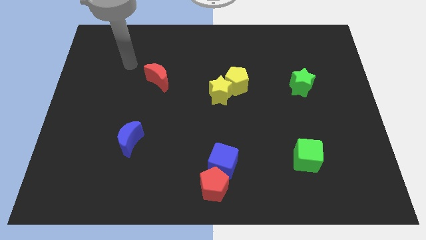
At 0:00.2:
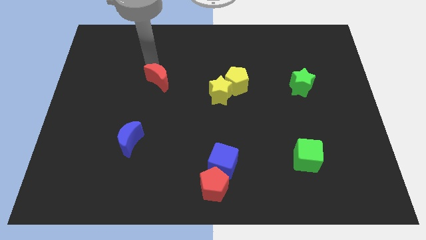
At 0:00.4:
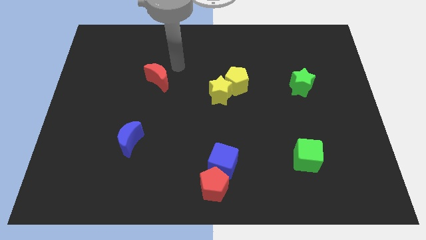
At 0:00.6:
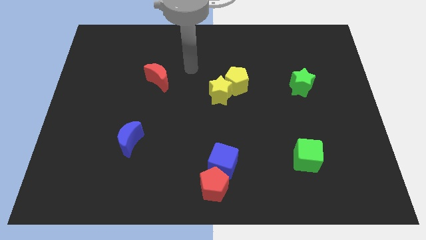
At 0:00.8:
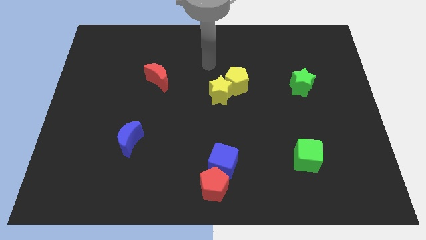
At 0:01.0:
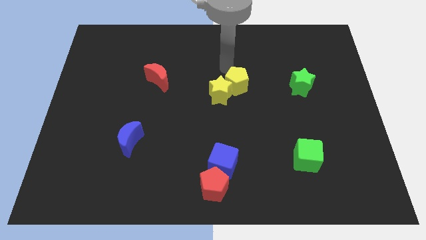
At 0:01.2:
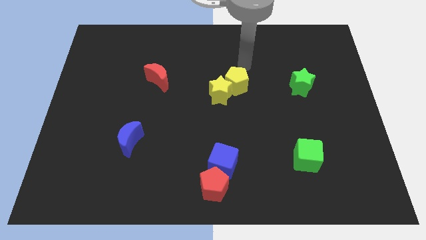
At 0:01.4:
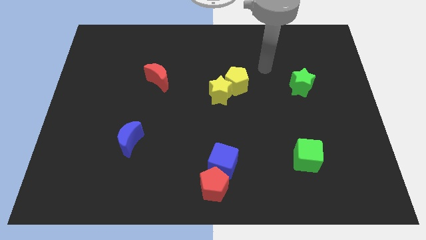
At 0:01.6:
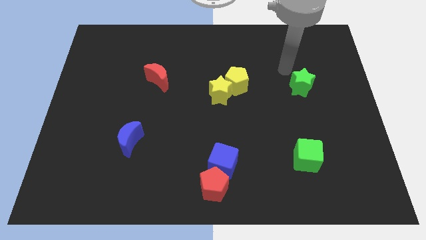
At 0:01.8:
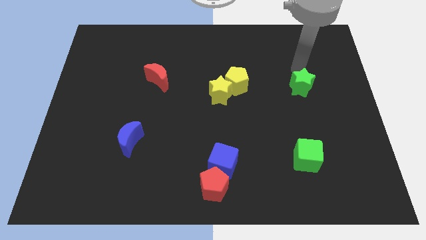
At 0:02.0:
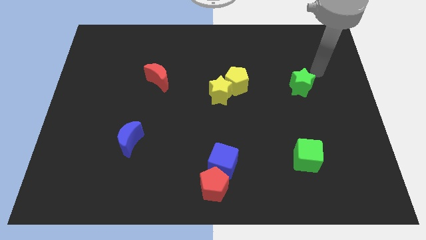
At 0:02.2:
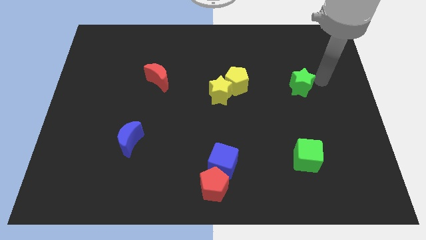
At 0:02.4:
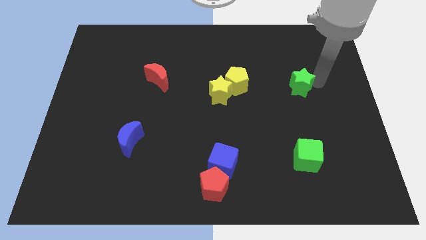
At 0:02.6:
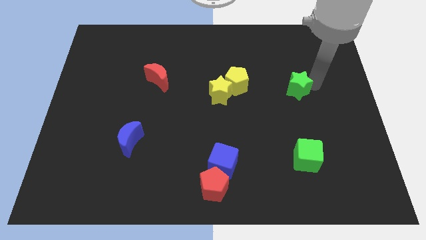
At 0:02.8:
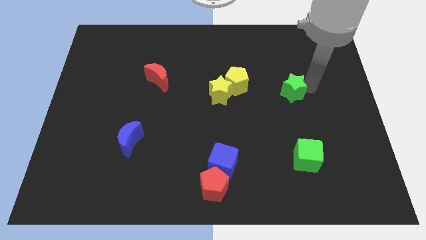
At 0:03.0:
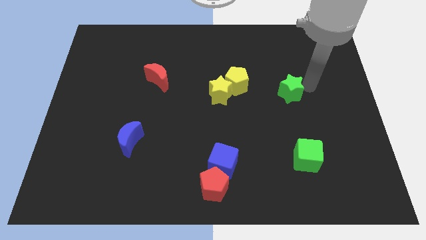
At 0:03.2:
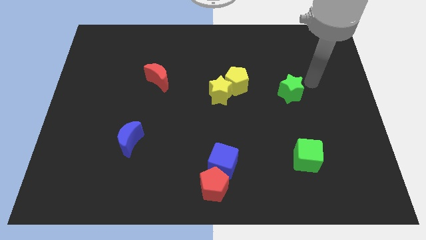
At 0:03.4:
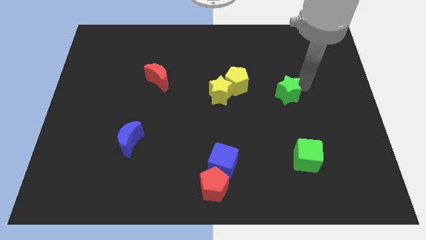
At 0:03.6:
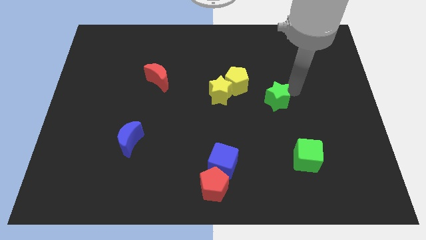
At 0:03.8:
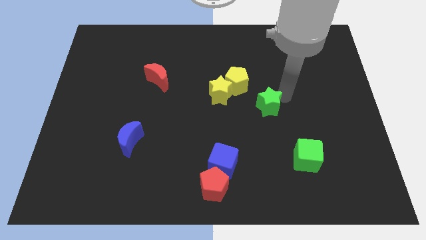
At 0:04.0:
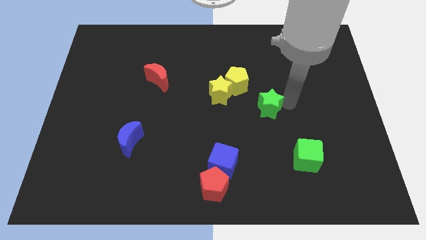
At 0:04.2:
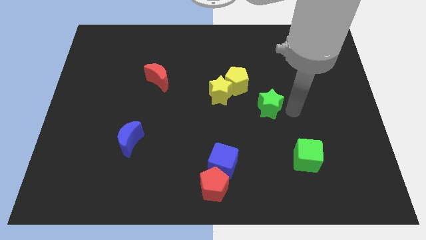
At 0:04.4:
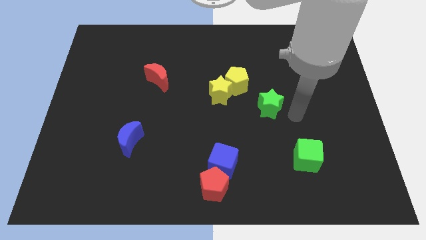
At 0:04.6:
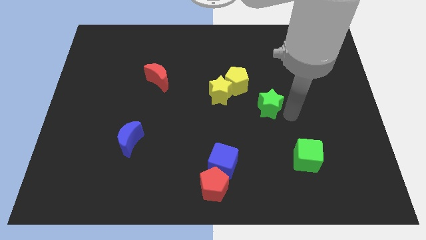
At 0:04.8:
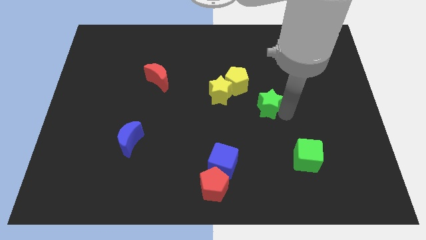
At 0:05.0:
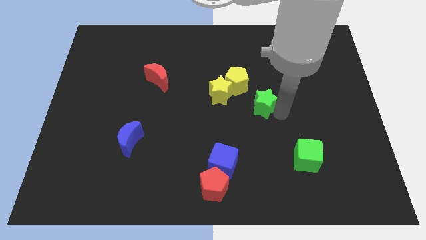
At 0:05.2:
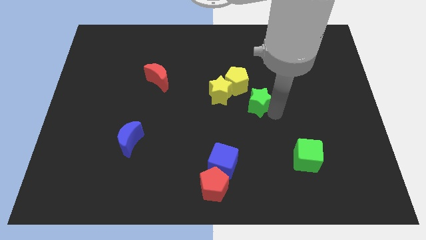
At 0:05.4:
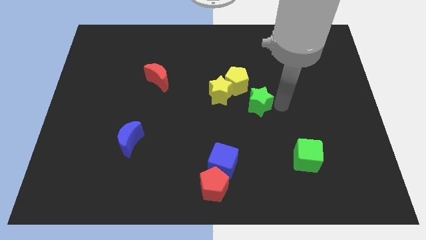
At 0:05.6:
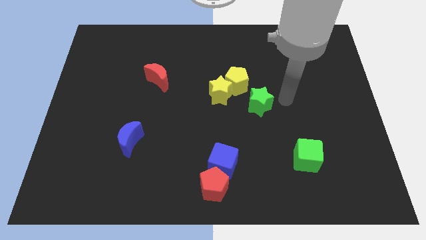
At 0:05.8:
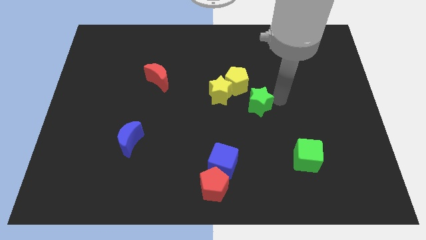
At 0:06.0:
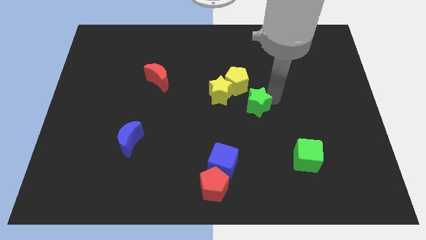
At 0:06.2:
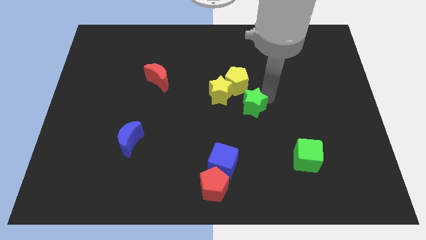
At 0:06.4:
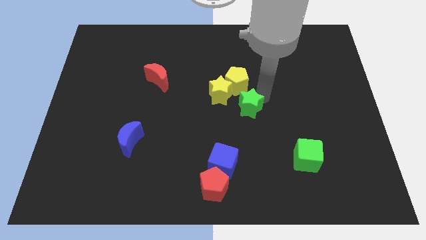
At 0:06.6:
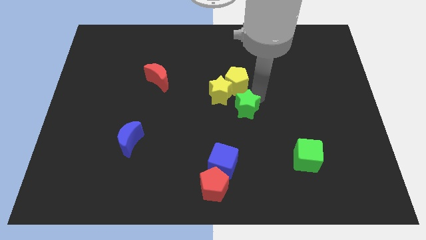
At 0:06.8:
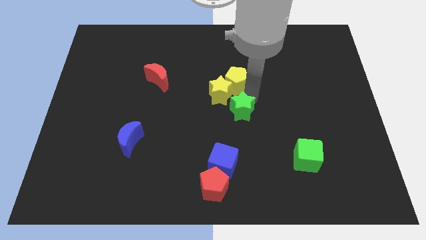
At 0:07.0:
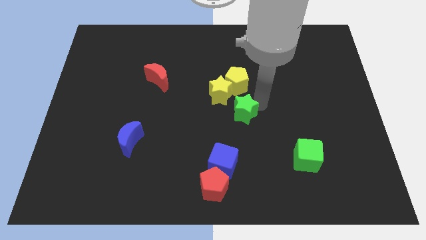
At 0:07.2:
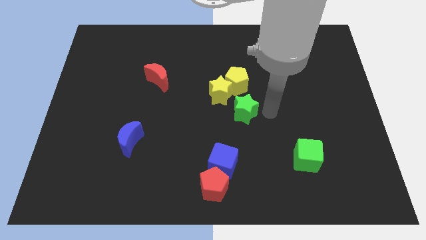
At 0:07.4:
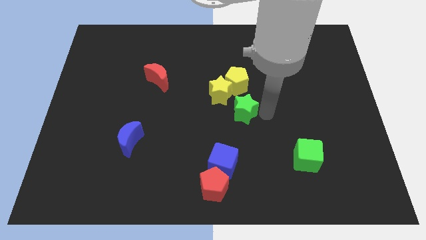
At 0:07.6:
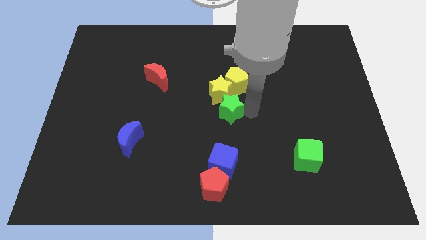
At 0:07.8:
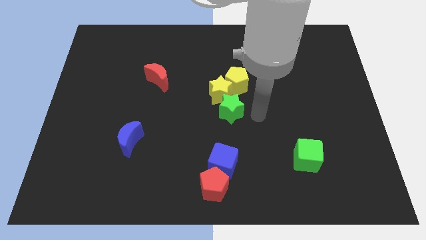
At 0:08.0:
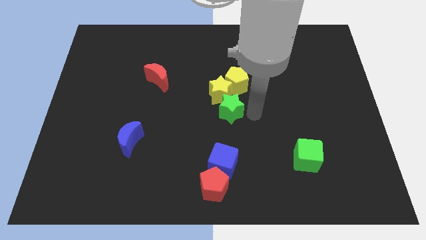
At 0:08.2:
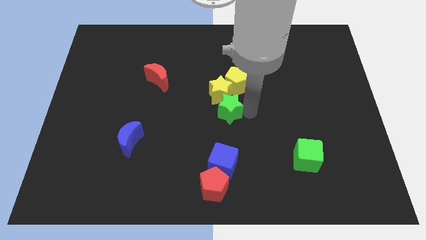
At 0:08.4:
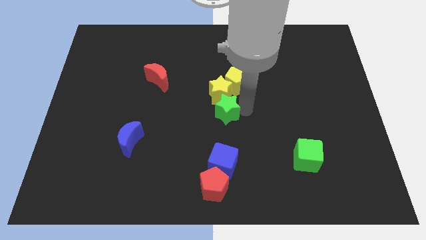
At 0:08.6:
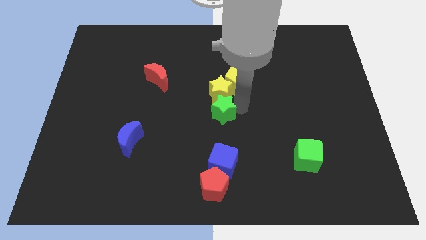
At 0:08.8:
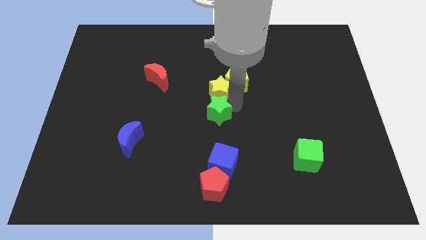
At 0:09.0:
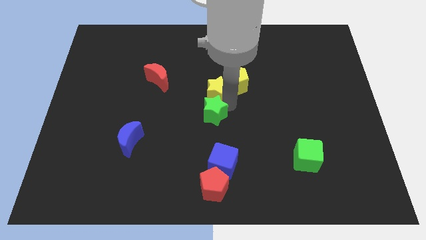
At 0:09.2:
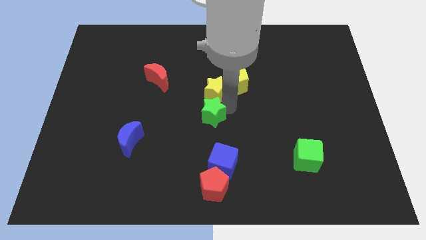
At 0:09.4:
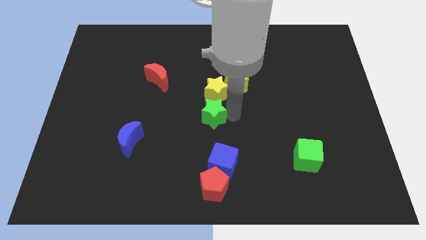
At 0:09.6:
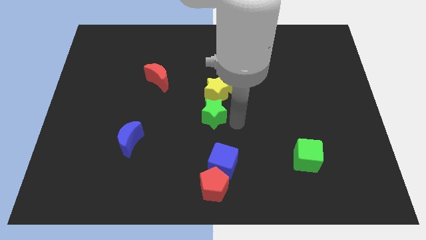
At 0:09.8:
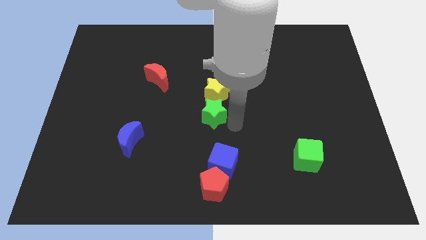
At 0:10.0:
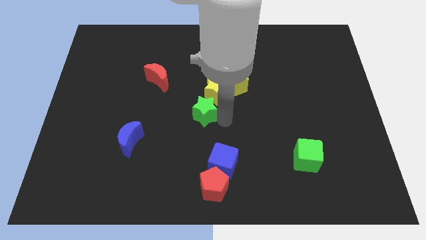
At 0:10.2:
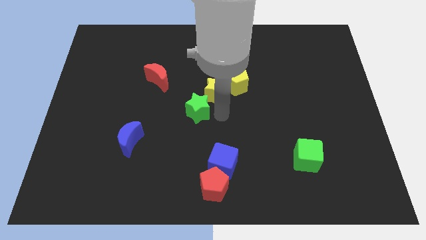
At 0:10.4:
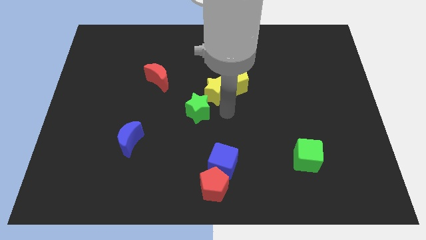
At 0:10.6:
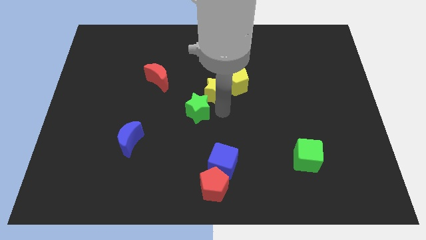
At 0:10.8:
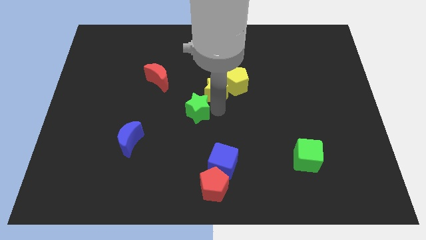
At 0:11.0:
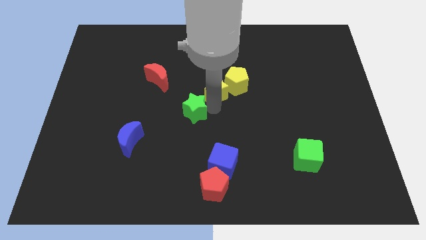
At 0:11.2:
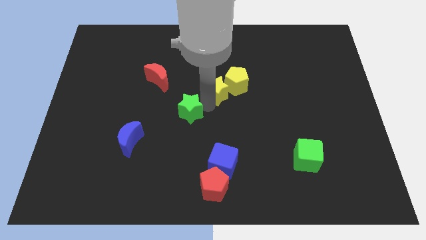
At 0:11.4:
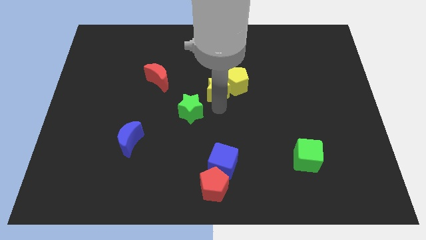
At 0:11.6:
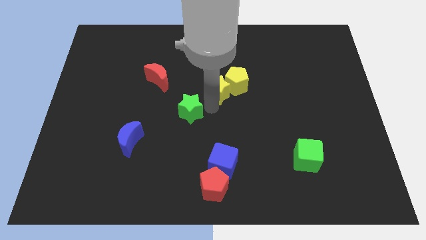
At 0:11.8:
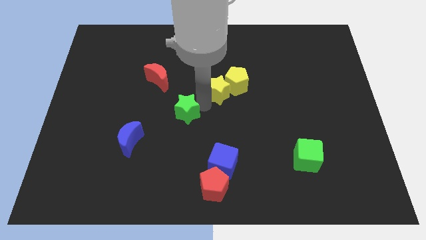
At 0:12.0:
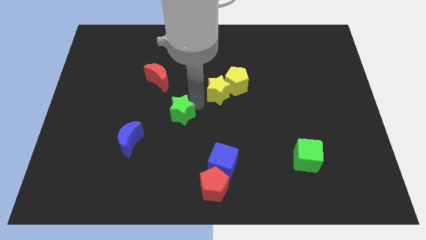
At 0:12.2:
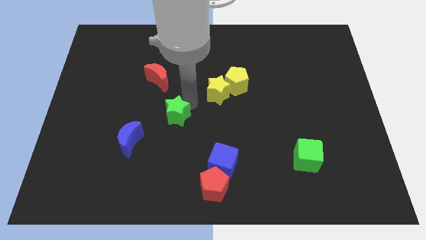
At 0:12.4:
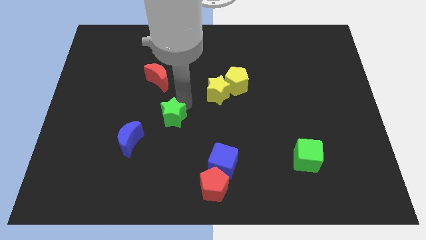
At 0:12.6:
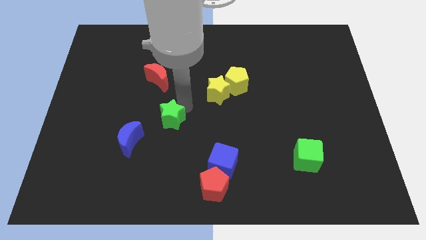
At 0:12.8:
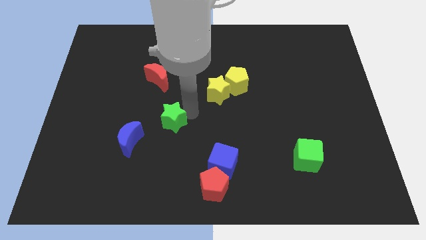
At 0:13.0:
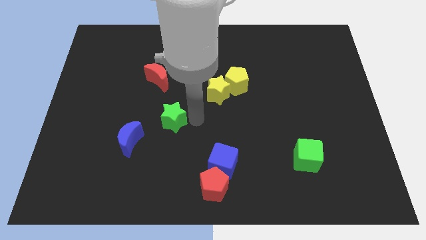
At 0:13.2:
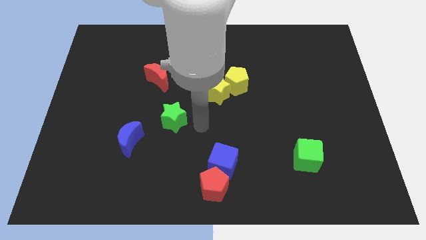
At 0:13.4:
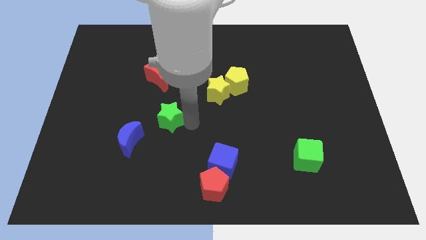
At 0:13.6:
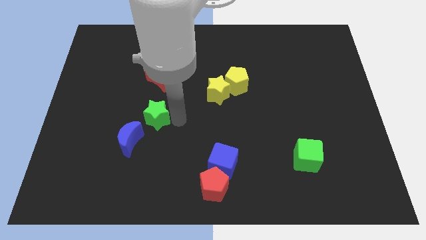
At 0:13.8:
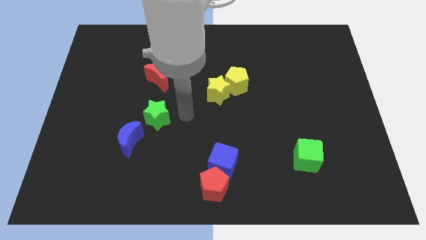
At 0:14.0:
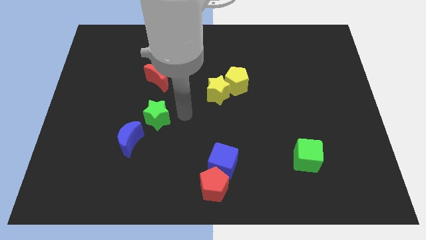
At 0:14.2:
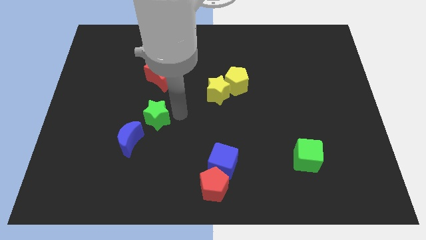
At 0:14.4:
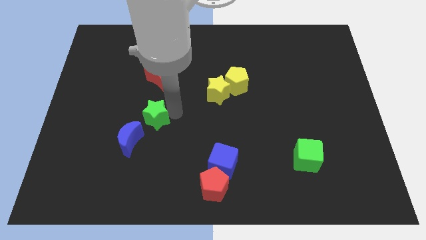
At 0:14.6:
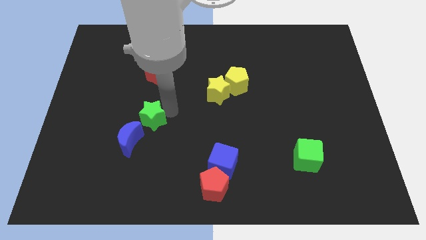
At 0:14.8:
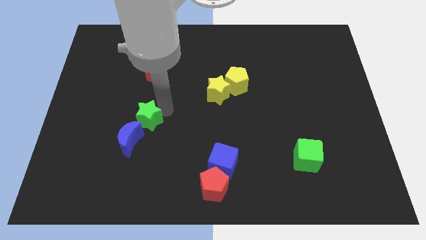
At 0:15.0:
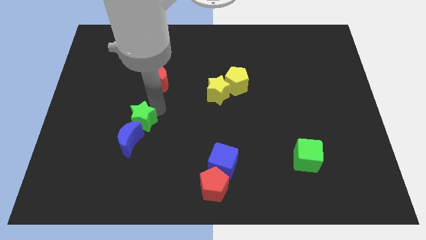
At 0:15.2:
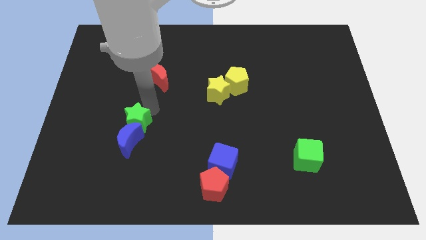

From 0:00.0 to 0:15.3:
move the green star to the top left side of the blue moon
